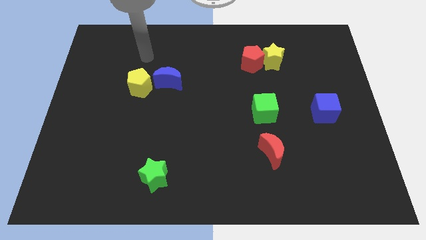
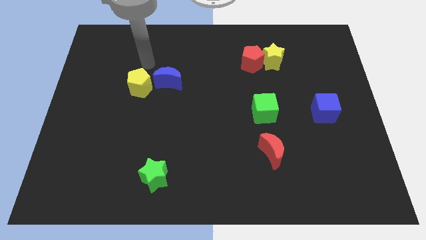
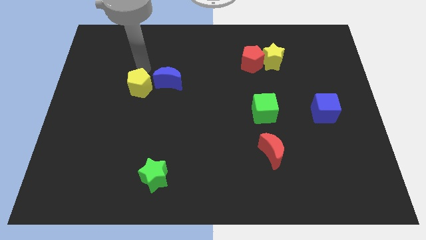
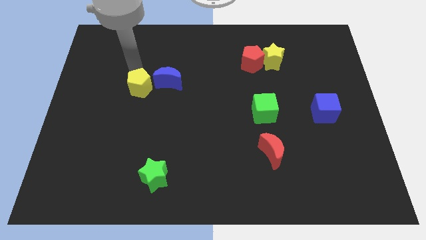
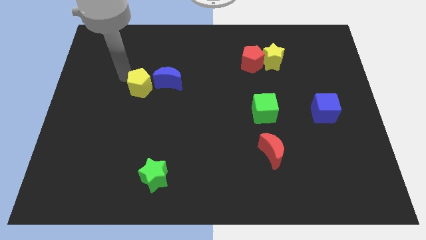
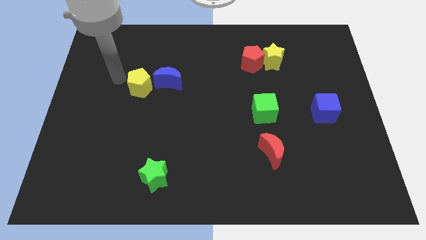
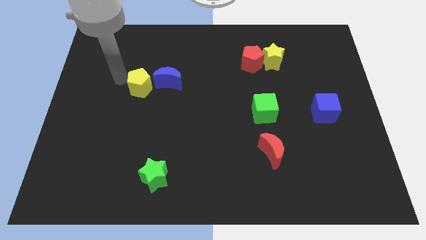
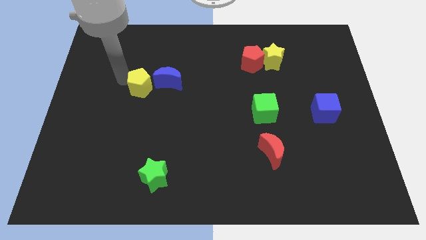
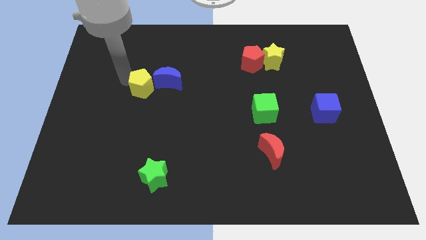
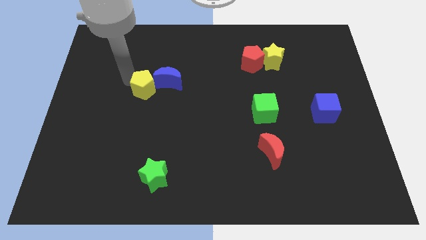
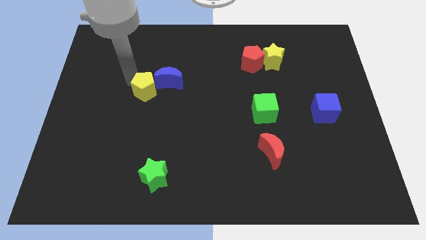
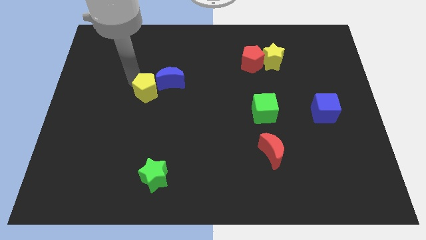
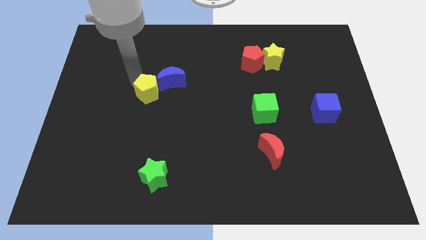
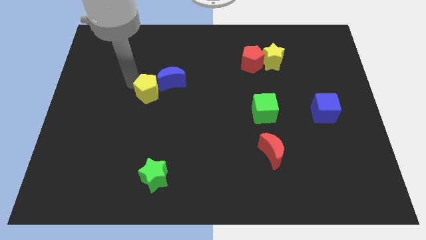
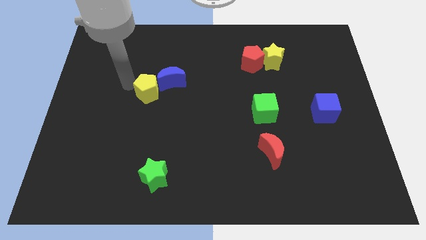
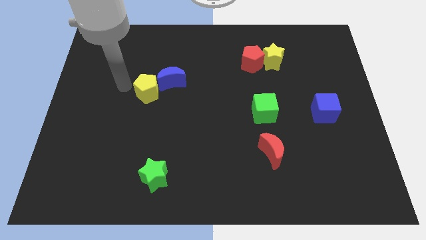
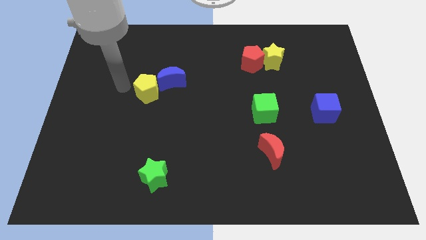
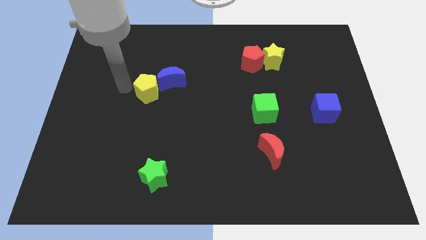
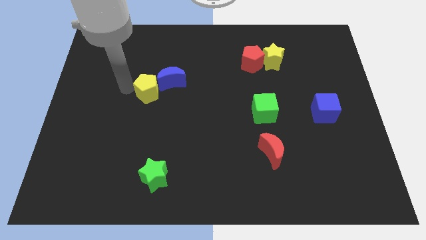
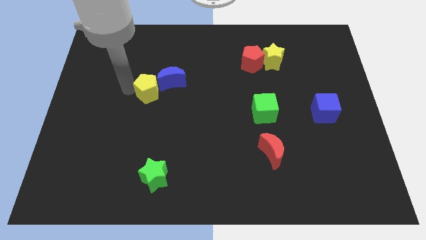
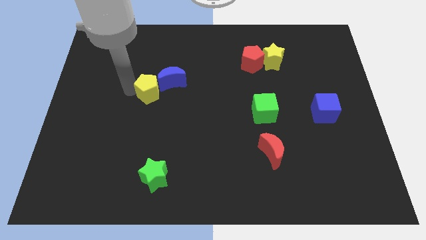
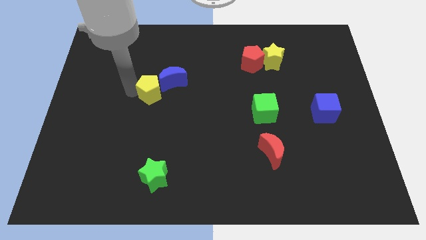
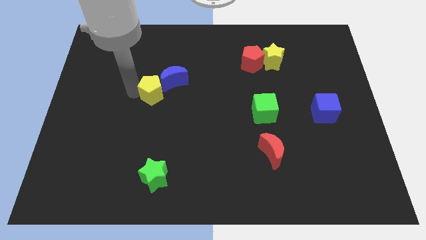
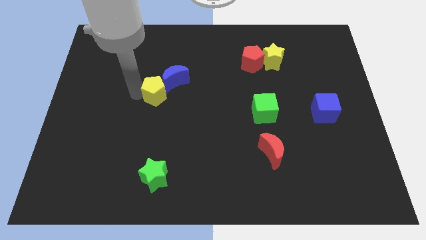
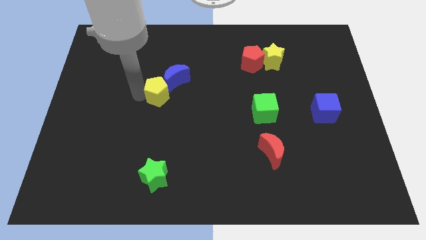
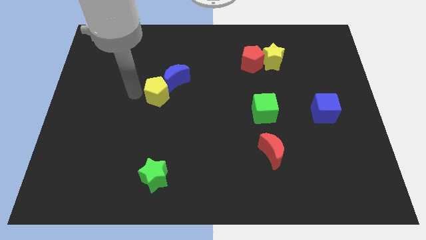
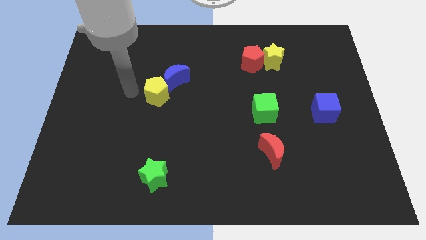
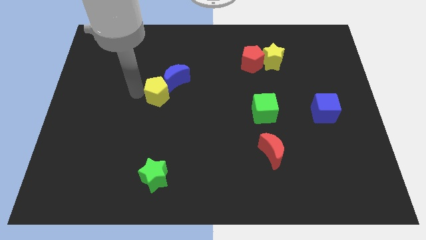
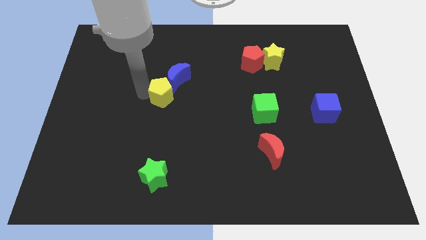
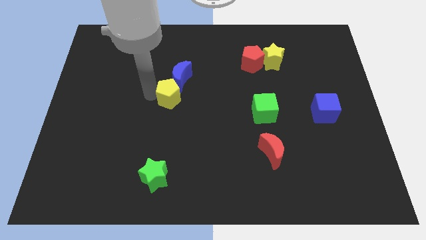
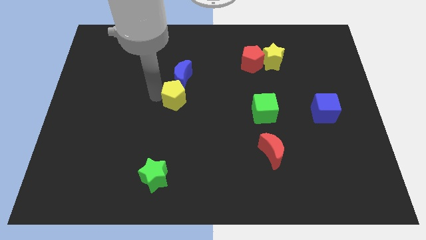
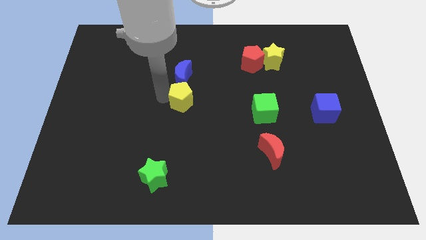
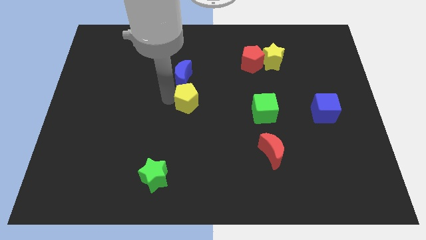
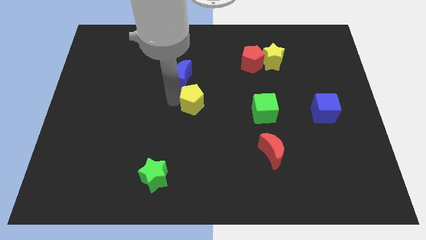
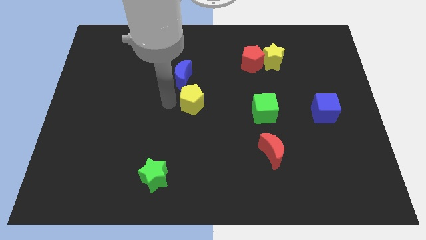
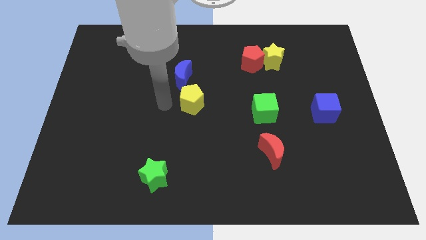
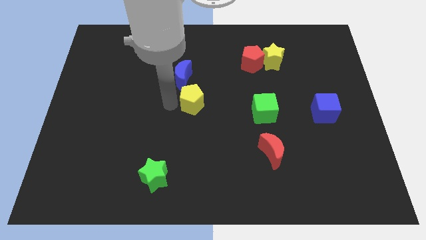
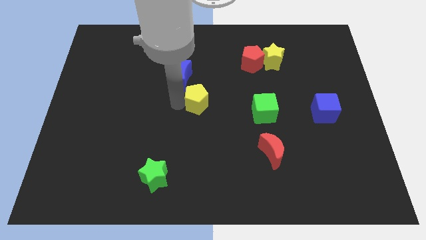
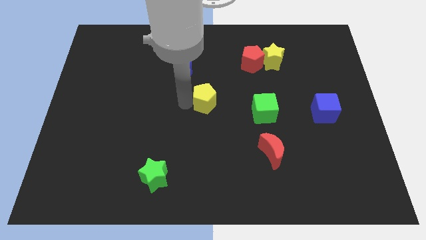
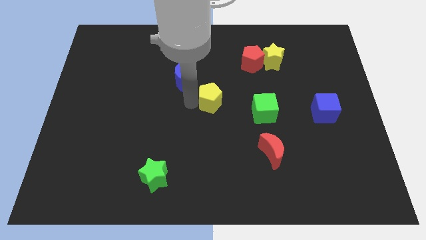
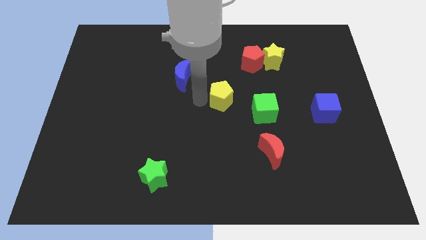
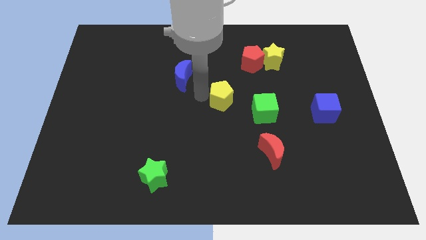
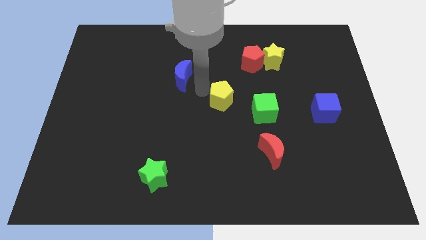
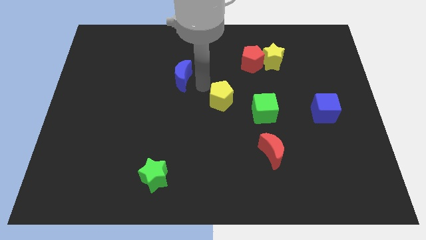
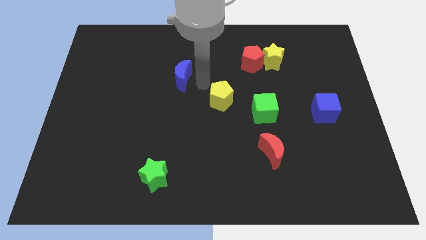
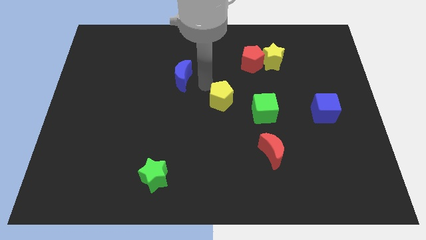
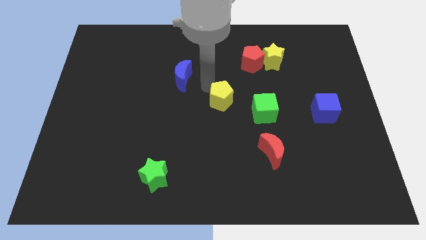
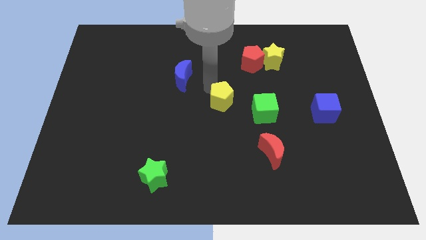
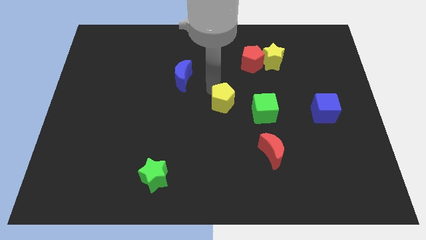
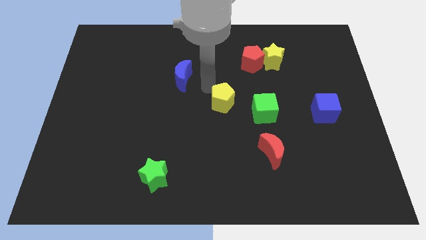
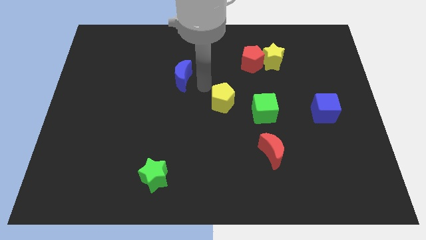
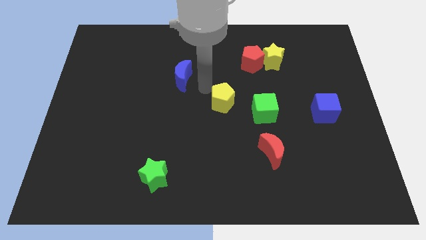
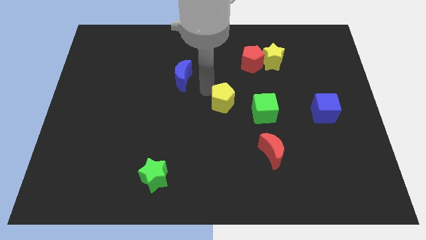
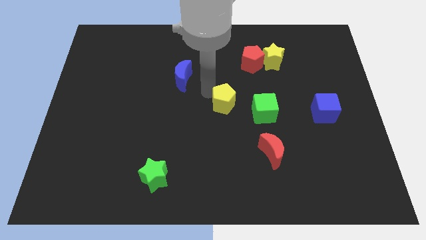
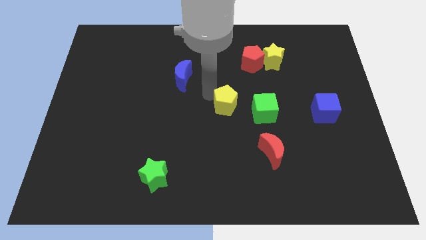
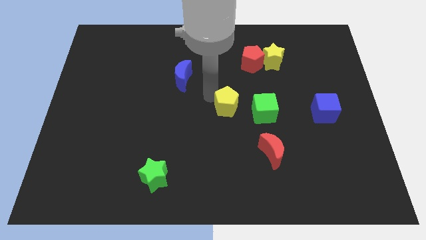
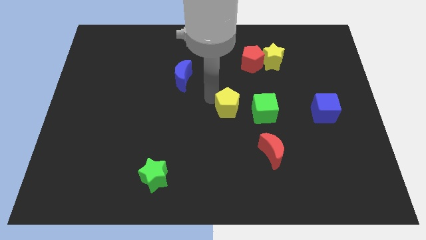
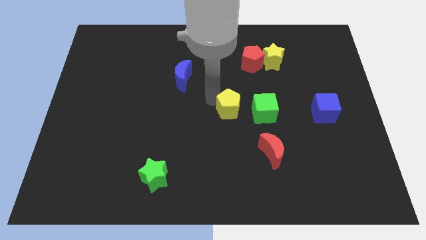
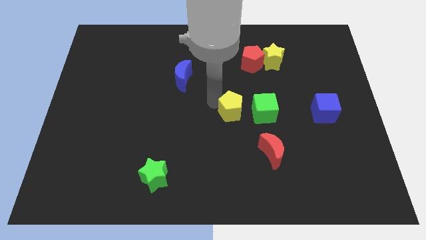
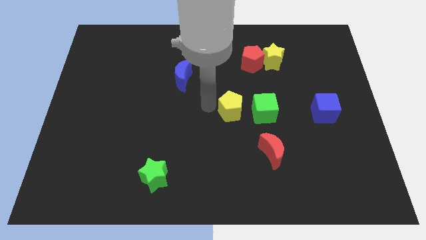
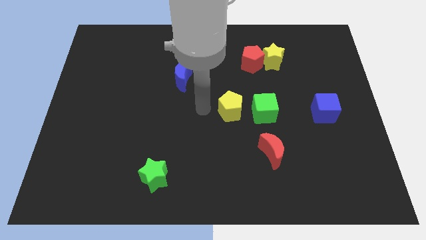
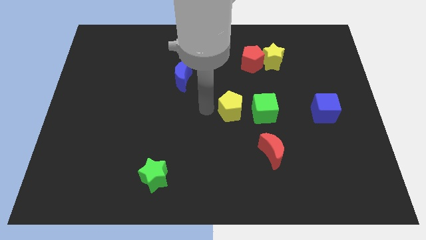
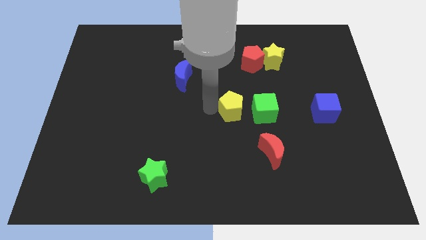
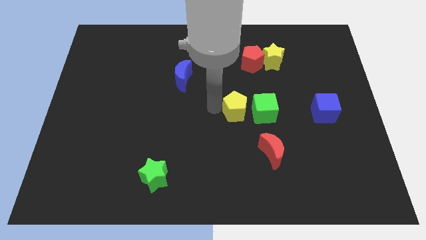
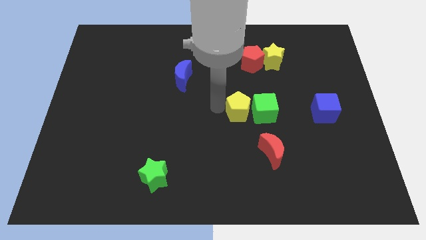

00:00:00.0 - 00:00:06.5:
put the yellow pentagon close to the green cube
